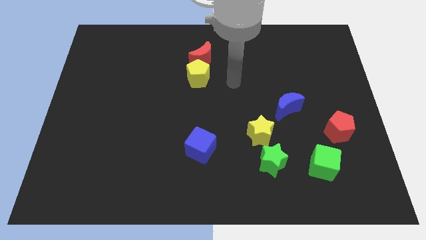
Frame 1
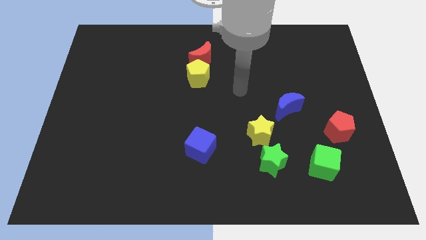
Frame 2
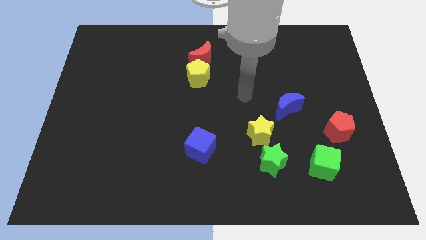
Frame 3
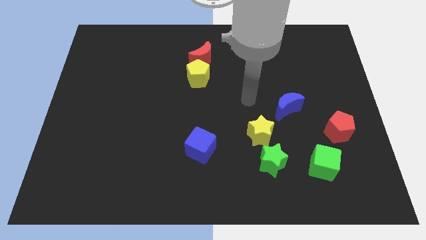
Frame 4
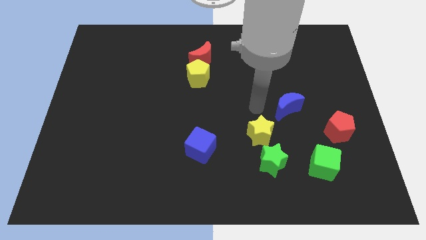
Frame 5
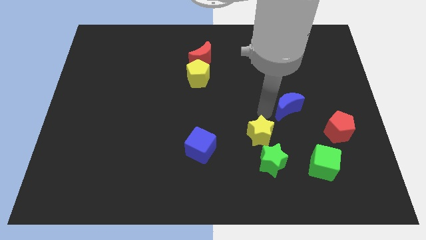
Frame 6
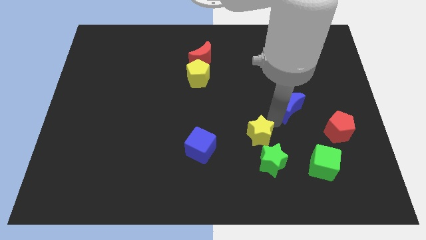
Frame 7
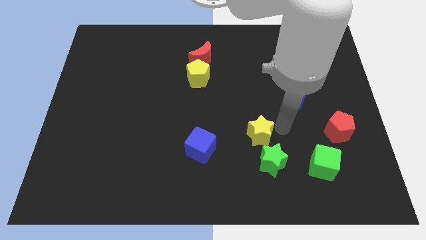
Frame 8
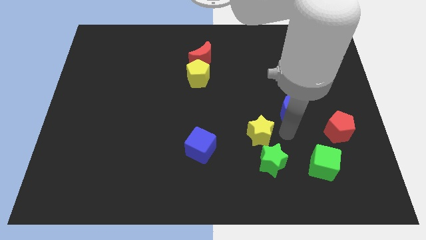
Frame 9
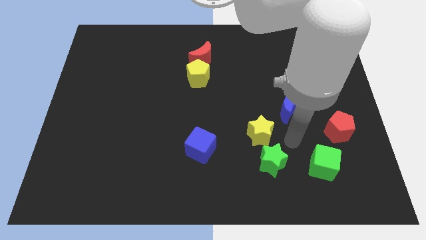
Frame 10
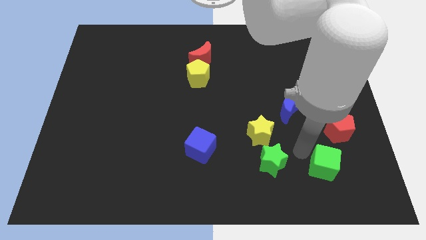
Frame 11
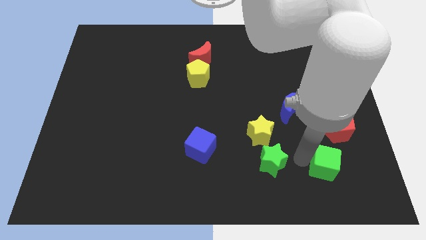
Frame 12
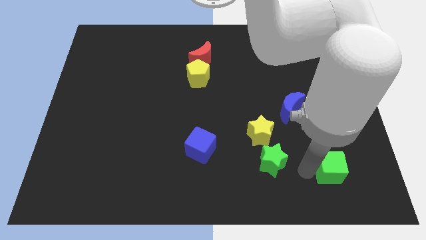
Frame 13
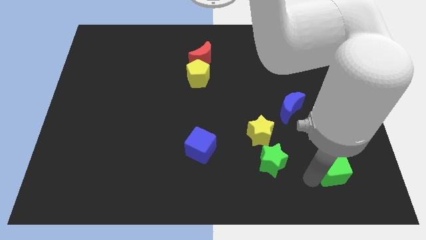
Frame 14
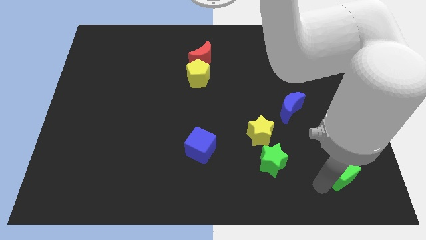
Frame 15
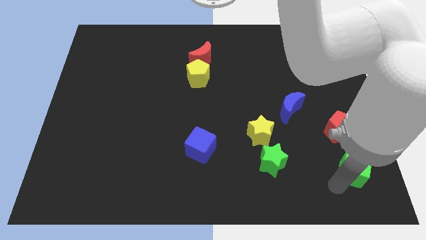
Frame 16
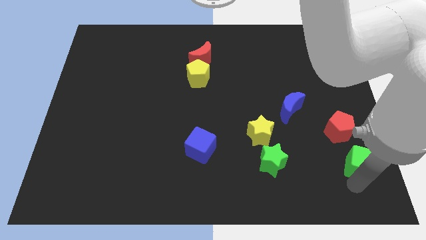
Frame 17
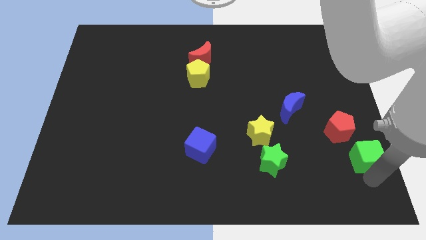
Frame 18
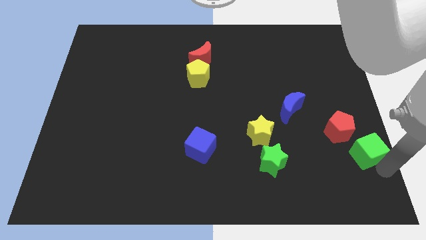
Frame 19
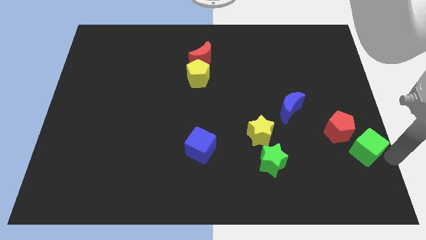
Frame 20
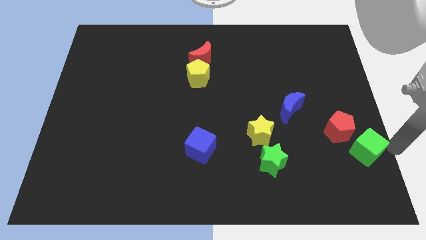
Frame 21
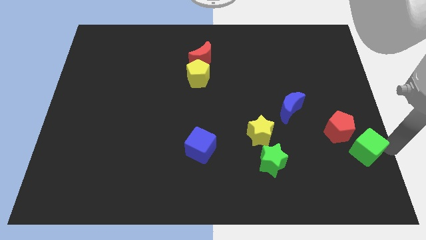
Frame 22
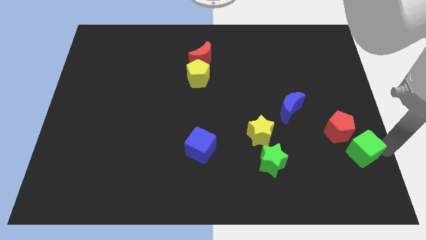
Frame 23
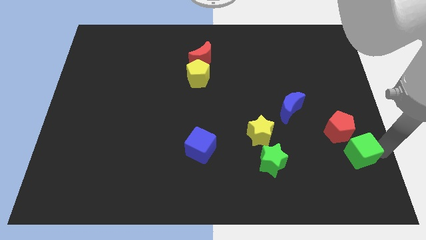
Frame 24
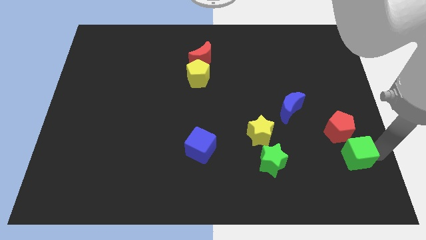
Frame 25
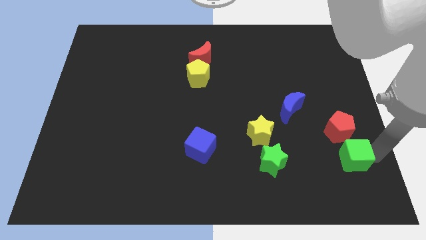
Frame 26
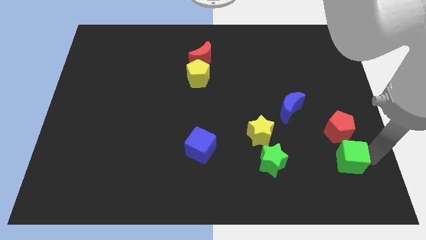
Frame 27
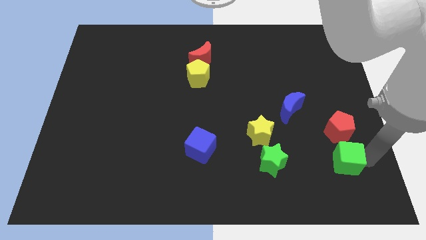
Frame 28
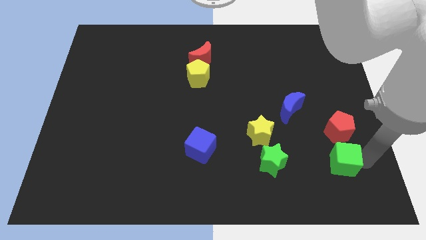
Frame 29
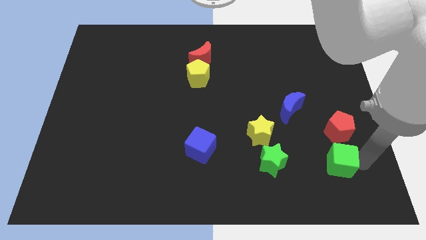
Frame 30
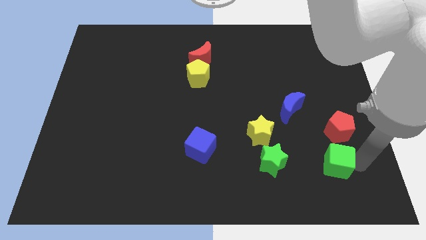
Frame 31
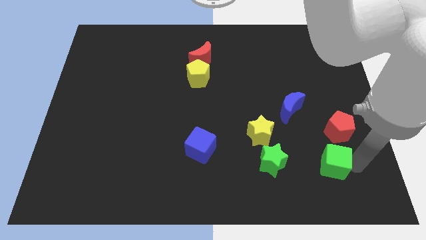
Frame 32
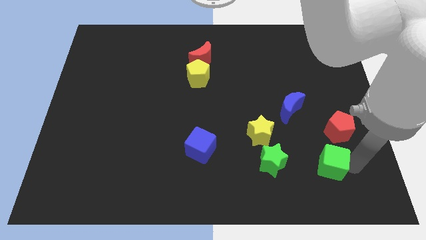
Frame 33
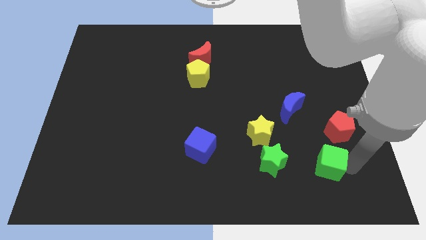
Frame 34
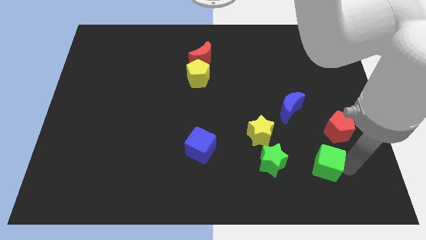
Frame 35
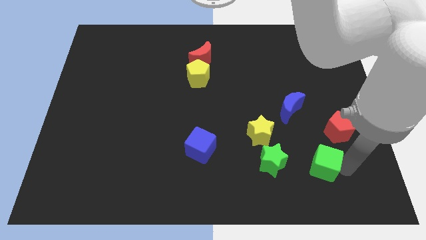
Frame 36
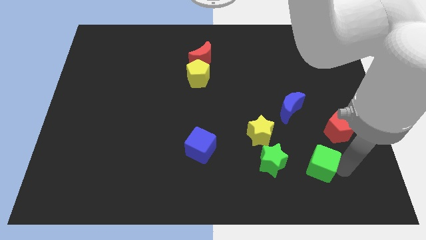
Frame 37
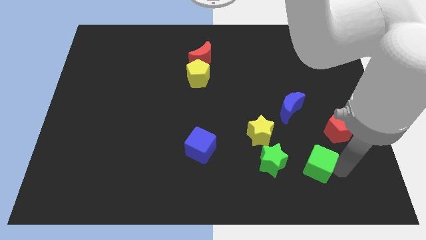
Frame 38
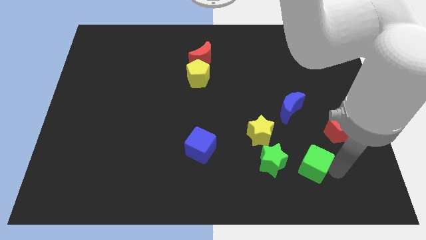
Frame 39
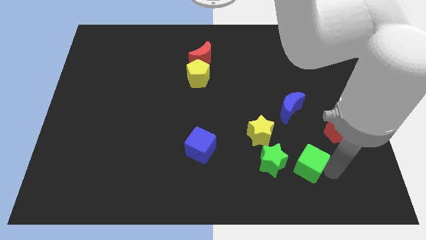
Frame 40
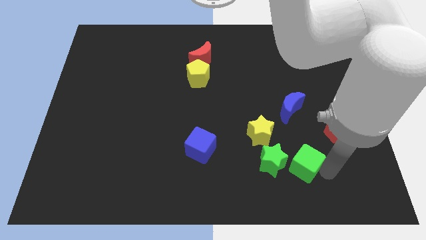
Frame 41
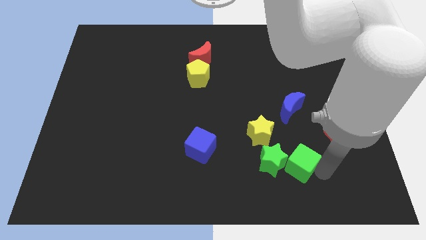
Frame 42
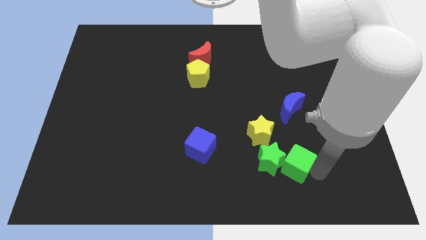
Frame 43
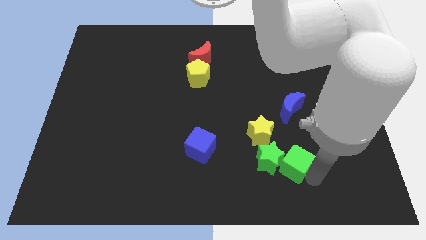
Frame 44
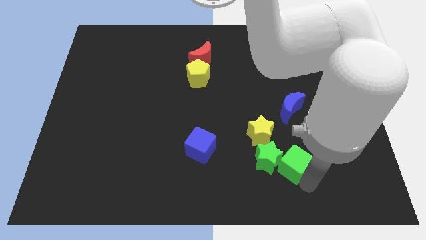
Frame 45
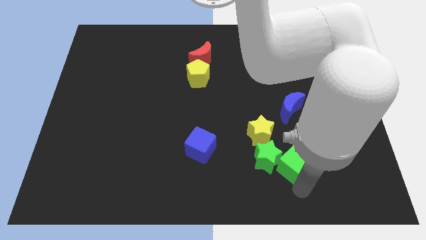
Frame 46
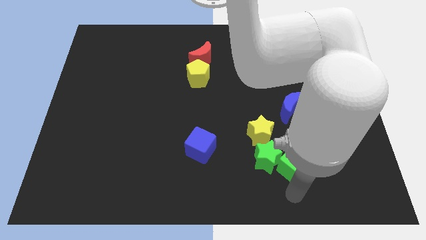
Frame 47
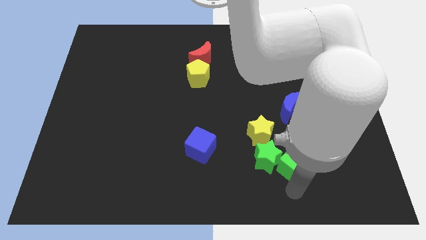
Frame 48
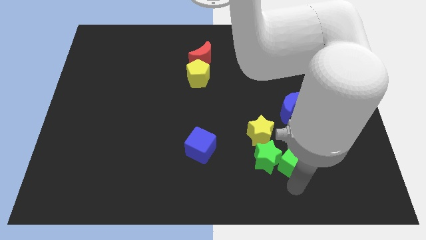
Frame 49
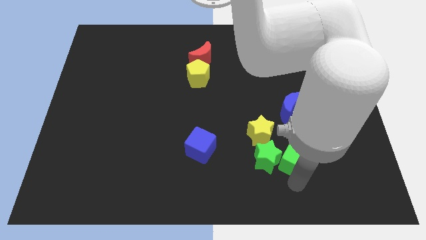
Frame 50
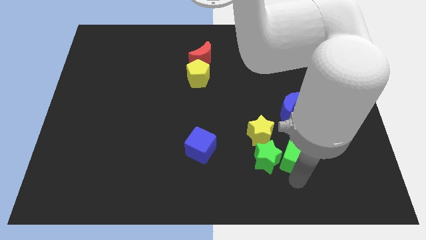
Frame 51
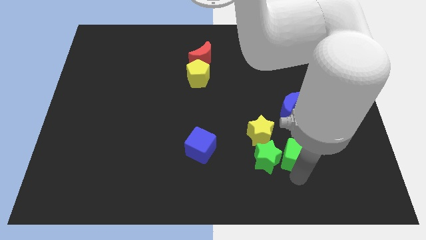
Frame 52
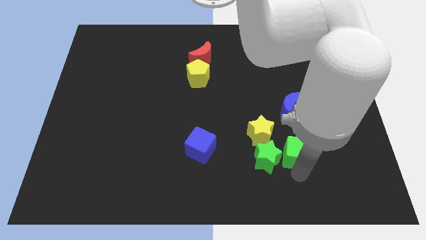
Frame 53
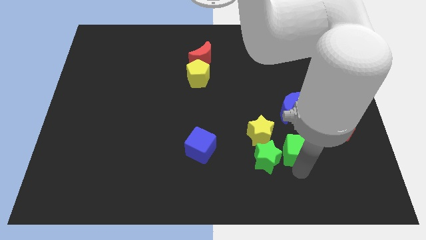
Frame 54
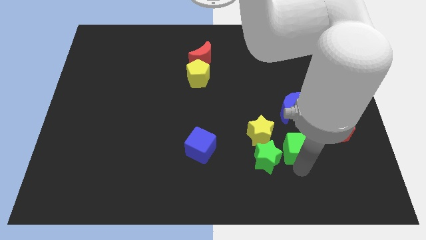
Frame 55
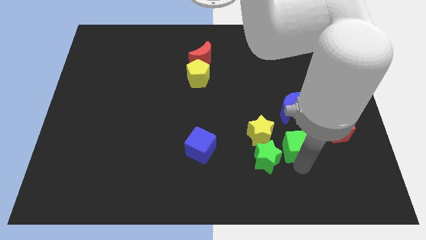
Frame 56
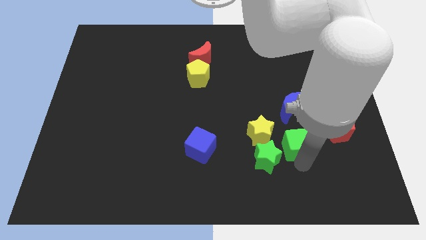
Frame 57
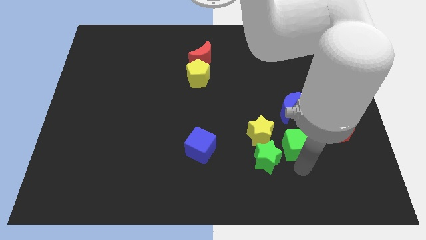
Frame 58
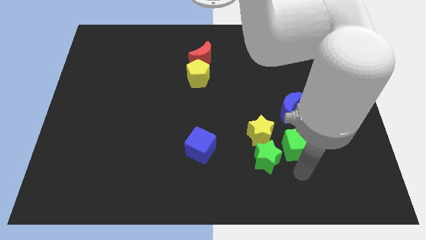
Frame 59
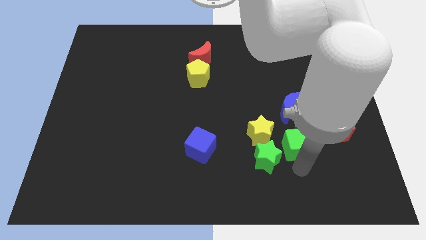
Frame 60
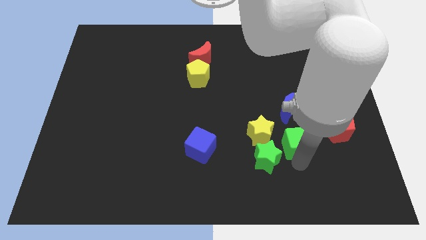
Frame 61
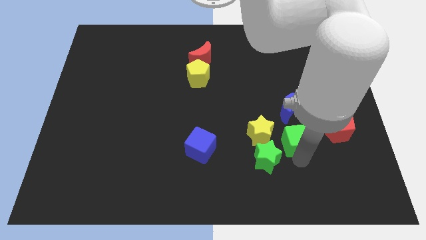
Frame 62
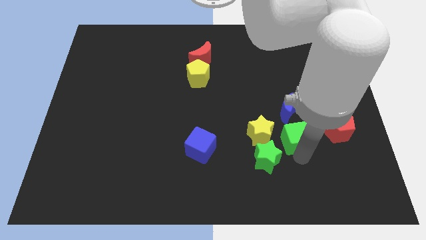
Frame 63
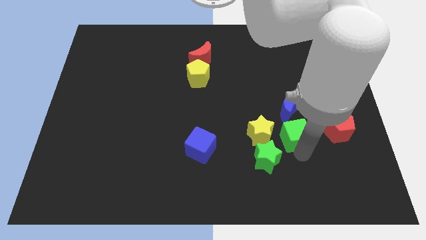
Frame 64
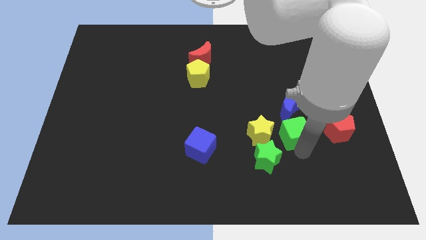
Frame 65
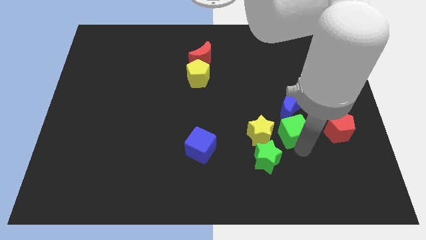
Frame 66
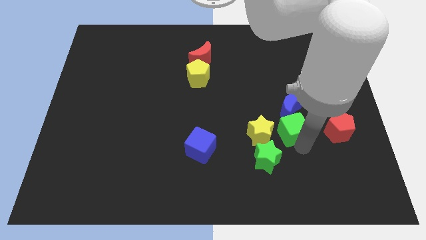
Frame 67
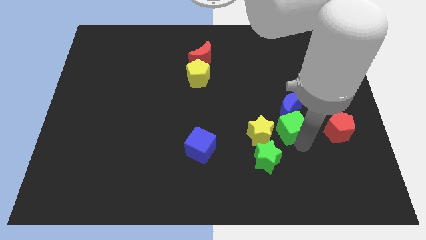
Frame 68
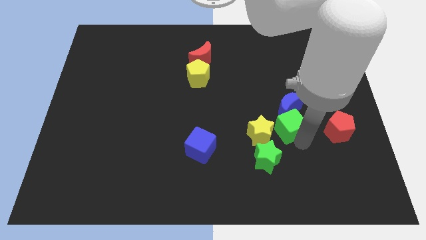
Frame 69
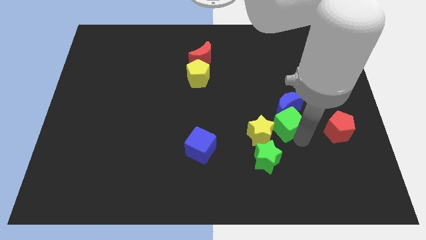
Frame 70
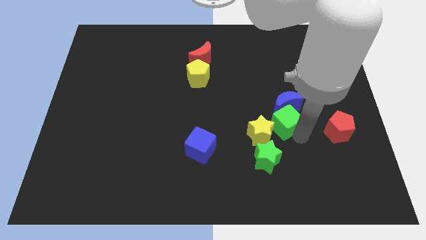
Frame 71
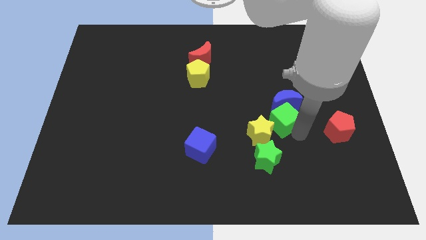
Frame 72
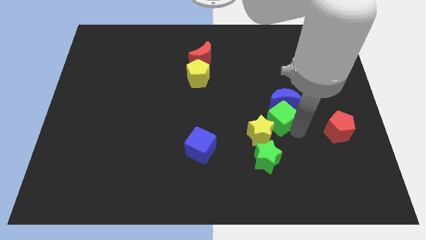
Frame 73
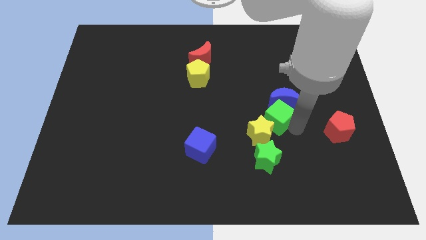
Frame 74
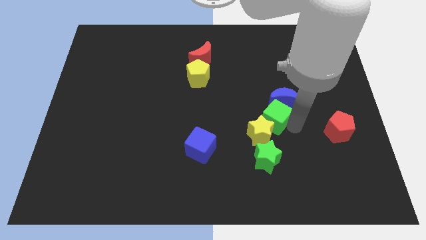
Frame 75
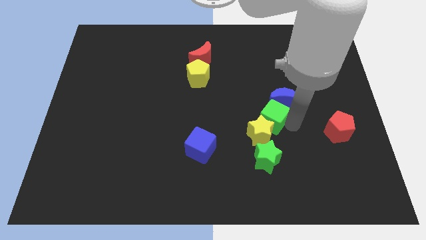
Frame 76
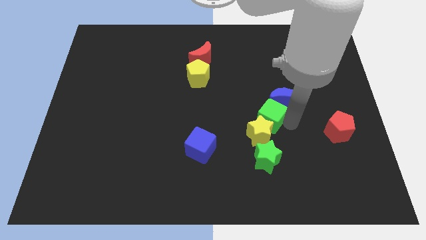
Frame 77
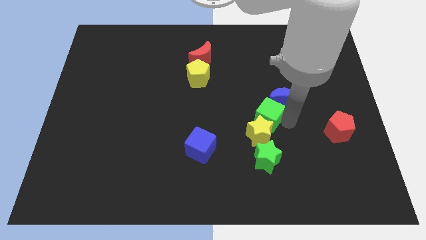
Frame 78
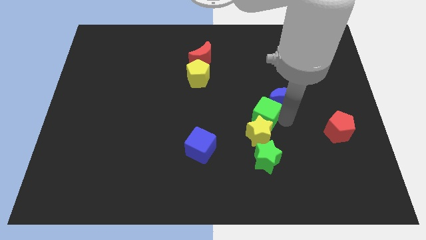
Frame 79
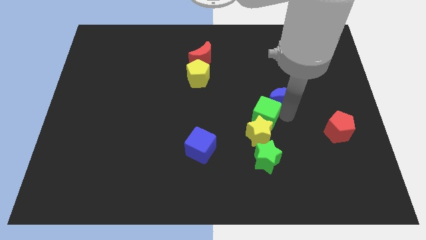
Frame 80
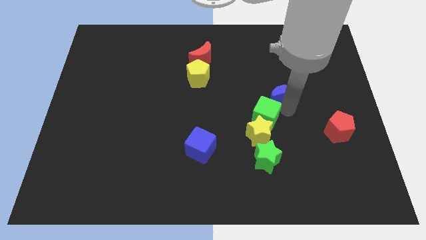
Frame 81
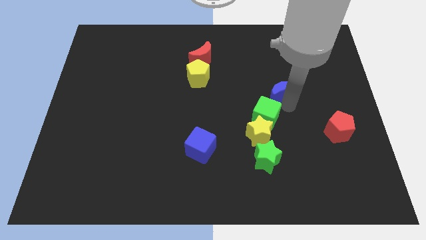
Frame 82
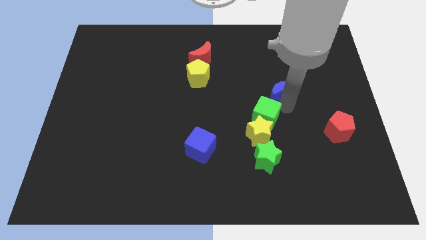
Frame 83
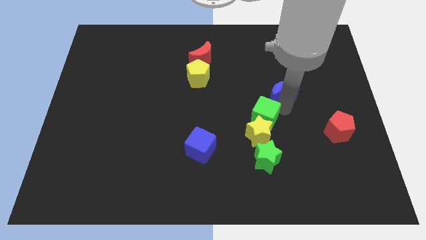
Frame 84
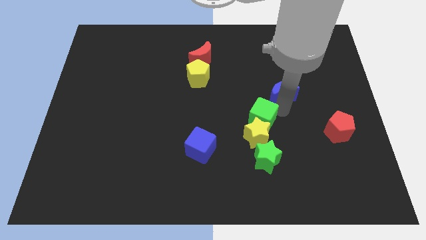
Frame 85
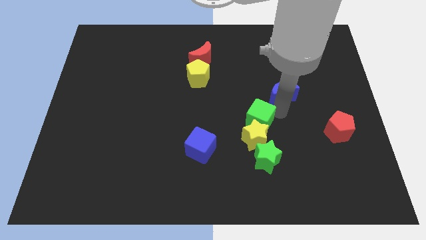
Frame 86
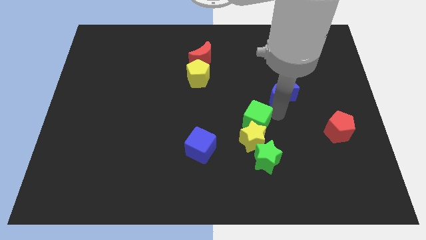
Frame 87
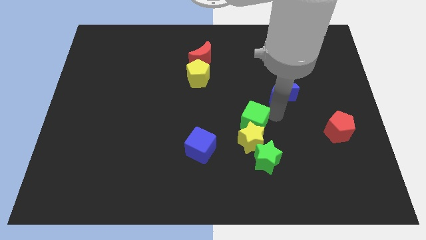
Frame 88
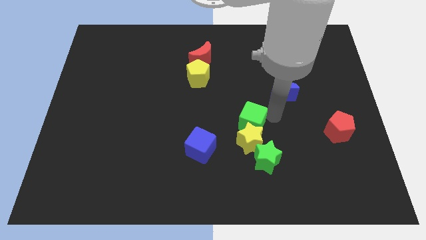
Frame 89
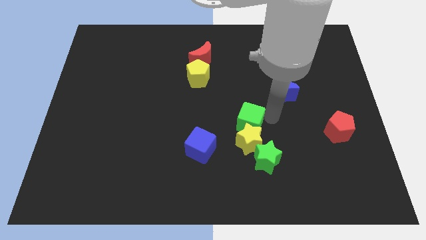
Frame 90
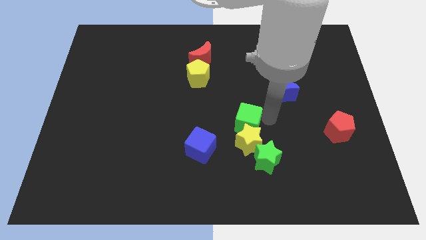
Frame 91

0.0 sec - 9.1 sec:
push the green cube diagonally up and to the right of the blue cube
